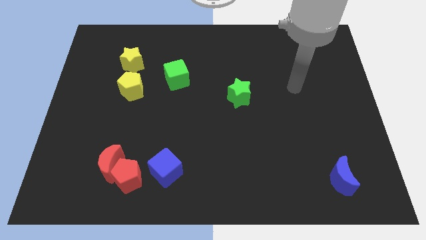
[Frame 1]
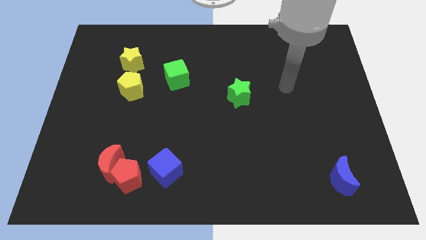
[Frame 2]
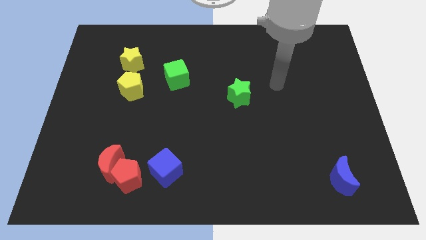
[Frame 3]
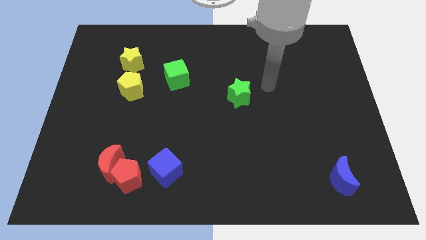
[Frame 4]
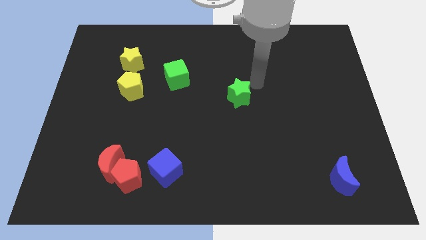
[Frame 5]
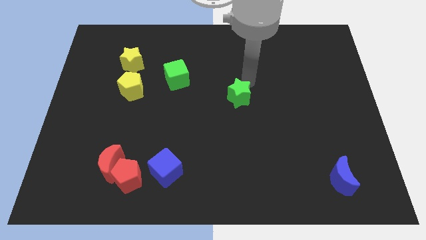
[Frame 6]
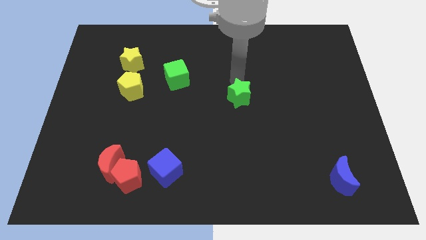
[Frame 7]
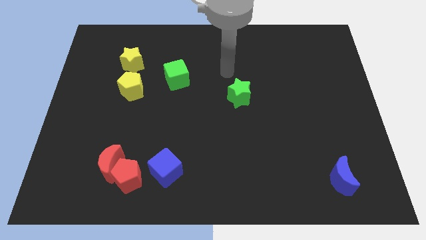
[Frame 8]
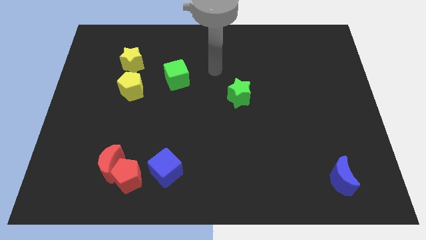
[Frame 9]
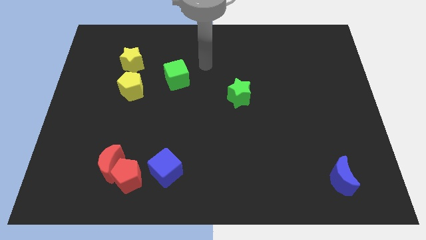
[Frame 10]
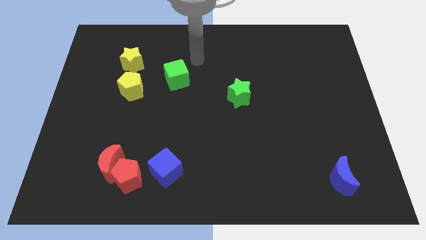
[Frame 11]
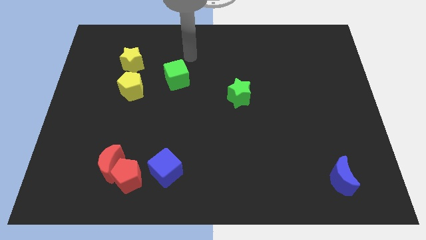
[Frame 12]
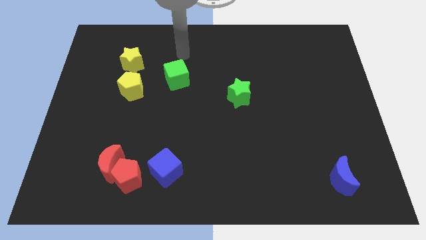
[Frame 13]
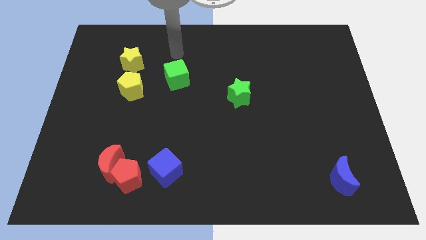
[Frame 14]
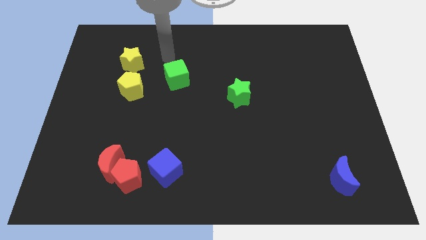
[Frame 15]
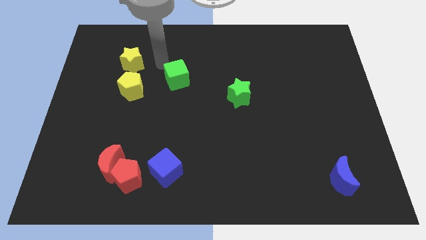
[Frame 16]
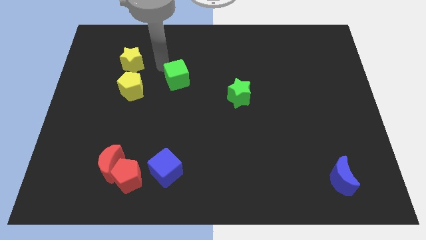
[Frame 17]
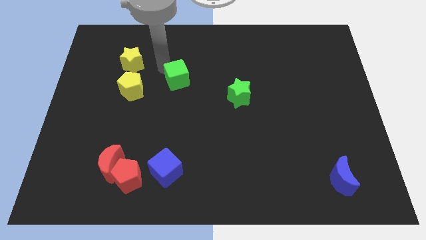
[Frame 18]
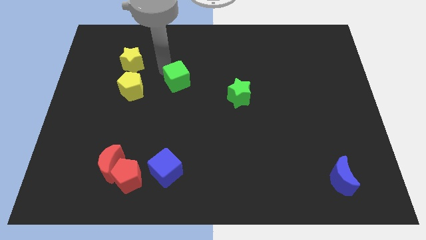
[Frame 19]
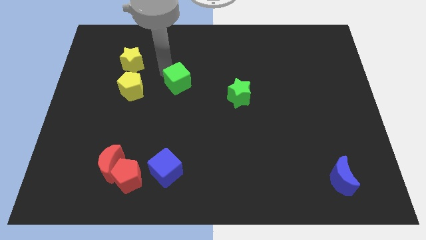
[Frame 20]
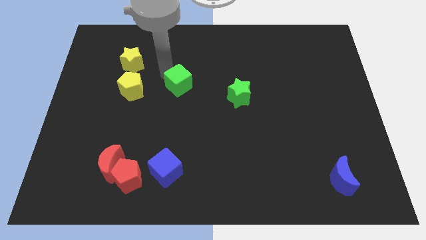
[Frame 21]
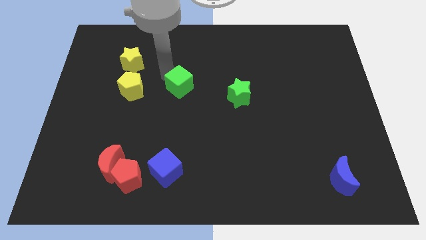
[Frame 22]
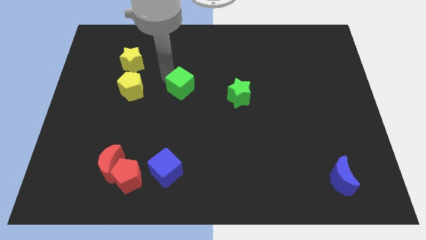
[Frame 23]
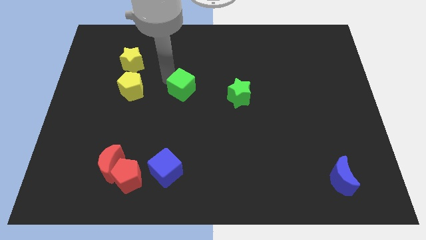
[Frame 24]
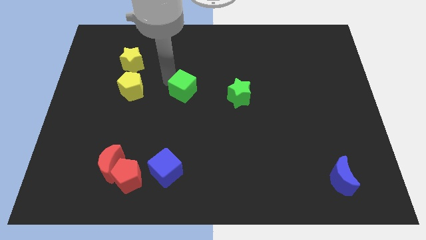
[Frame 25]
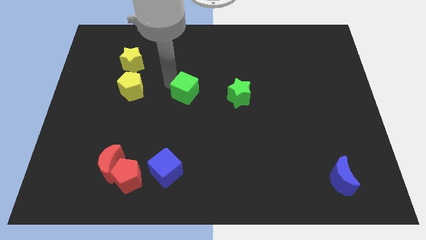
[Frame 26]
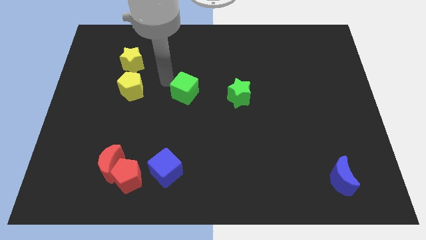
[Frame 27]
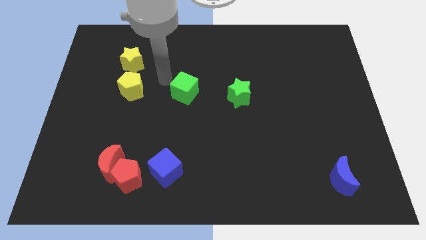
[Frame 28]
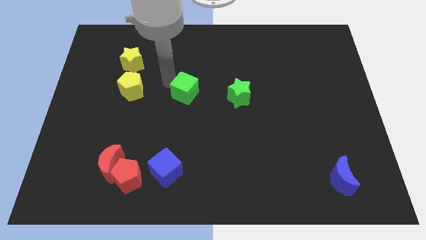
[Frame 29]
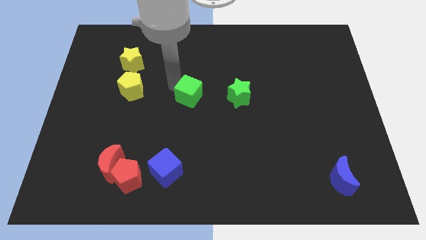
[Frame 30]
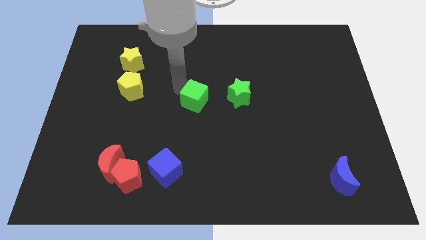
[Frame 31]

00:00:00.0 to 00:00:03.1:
slightly slide the green cube downwards and to the right diagonally

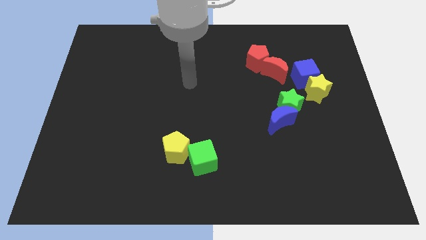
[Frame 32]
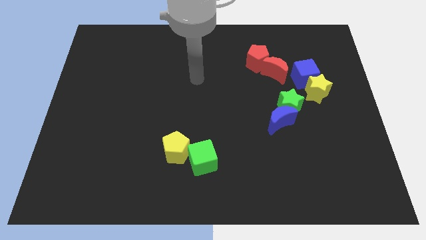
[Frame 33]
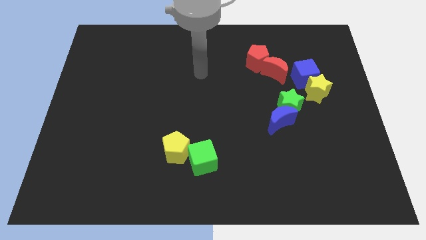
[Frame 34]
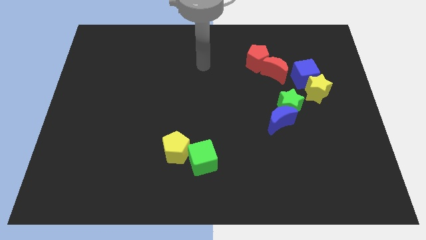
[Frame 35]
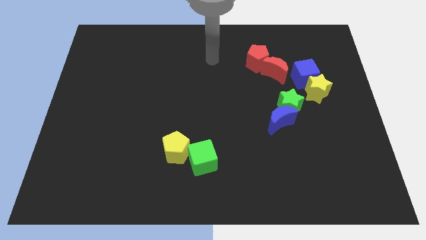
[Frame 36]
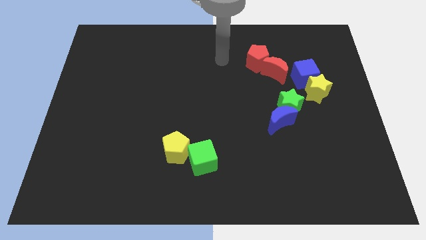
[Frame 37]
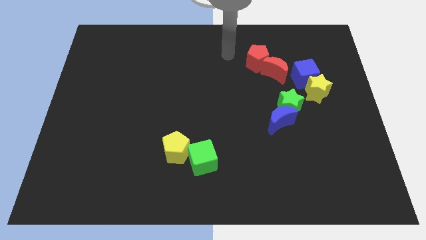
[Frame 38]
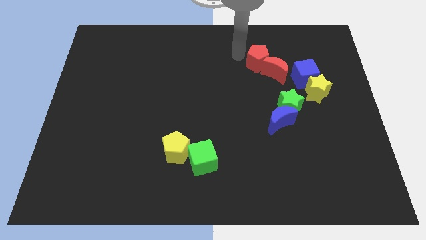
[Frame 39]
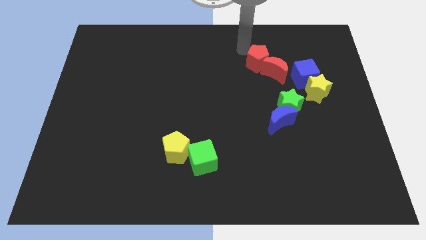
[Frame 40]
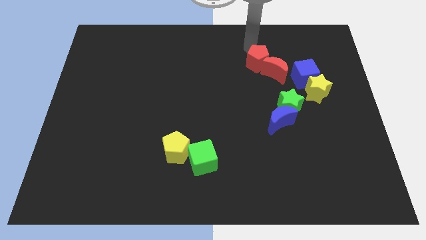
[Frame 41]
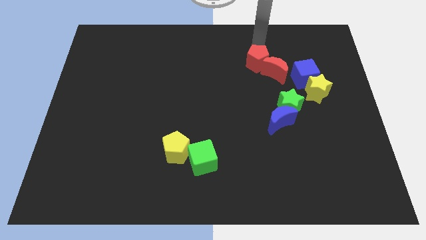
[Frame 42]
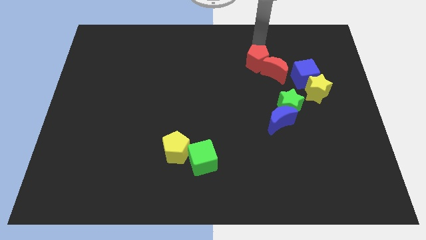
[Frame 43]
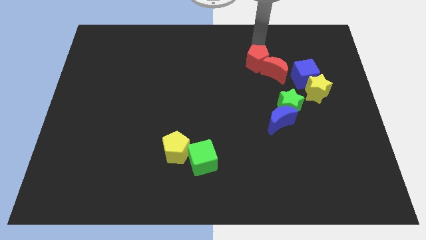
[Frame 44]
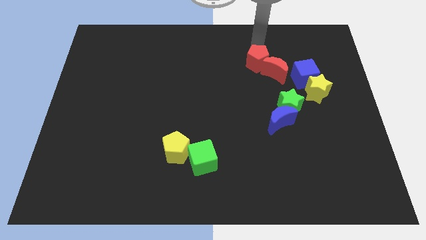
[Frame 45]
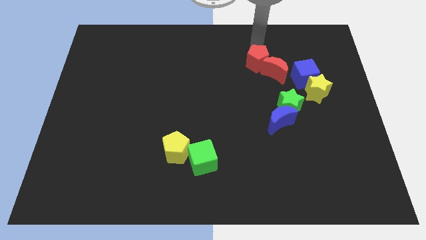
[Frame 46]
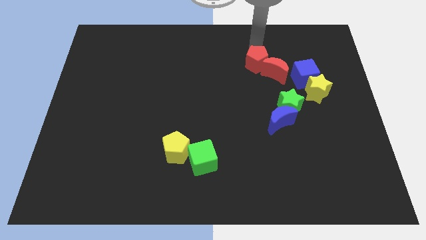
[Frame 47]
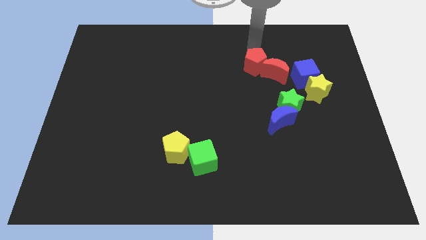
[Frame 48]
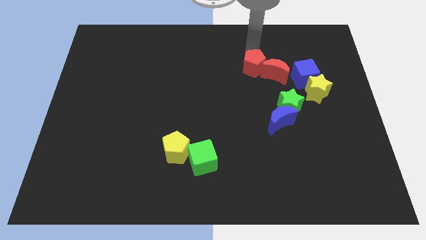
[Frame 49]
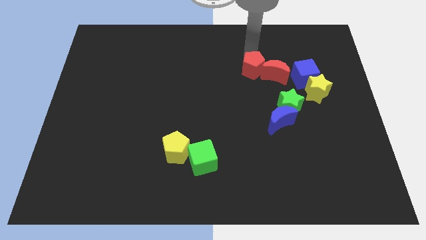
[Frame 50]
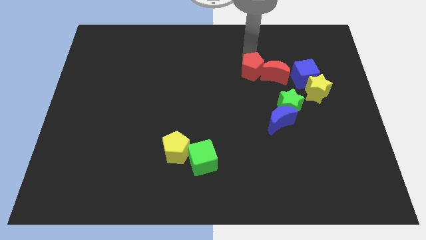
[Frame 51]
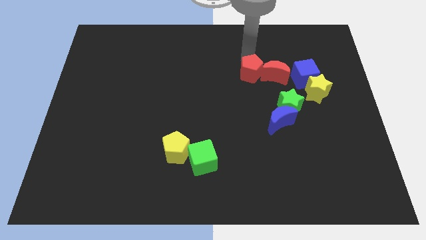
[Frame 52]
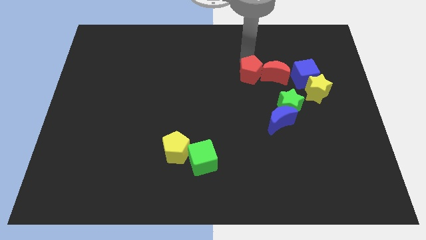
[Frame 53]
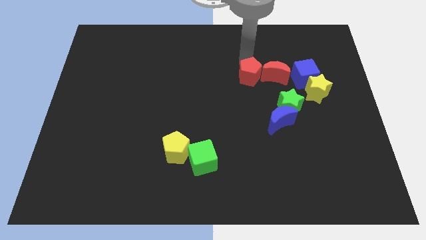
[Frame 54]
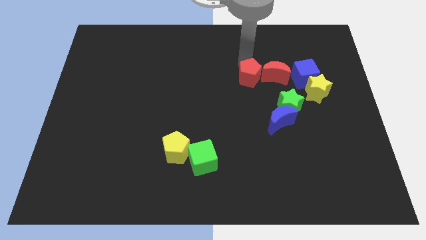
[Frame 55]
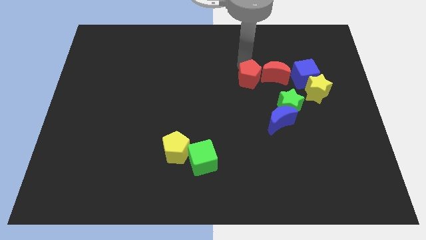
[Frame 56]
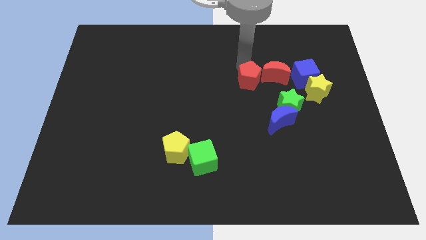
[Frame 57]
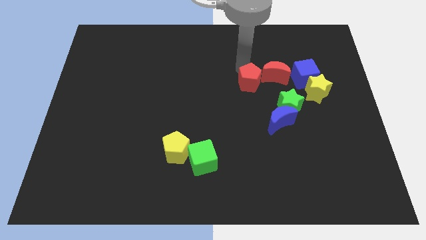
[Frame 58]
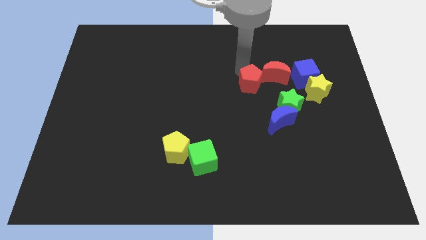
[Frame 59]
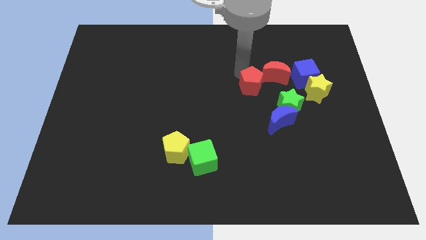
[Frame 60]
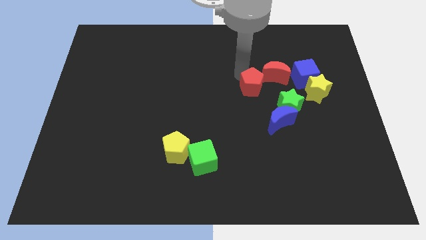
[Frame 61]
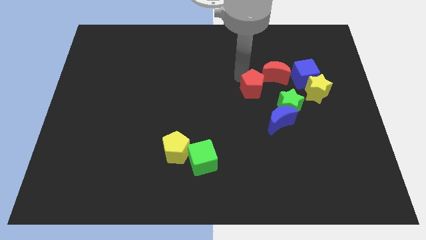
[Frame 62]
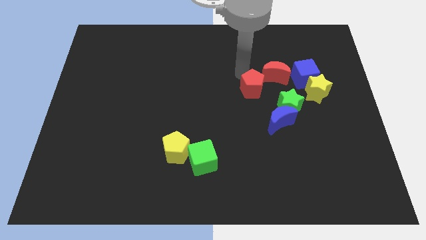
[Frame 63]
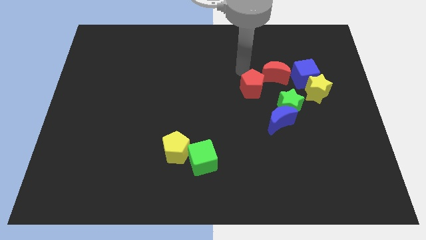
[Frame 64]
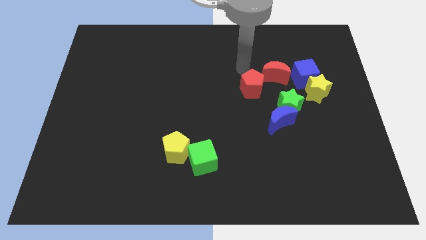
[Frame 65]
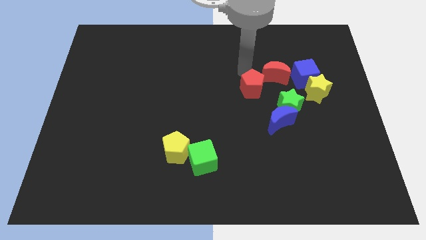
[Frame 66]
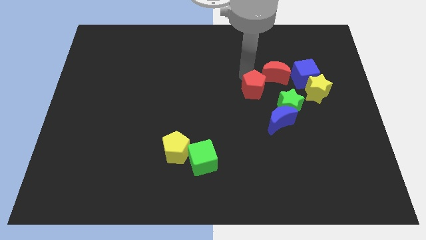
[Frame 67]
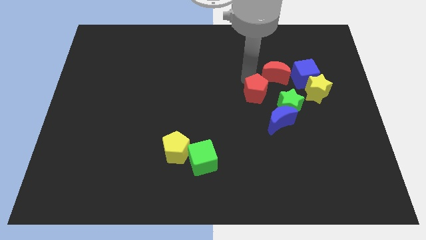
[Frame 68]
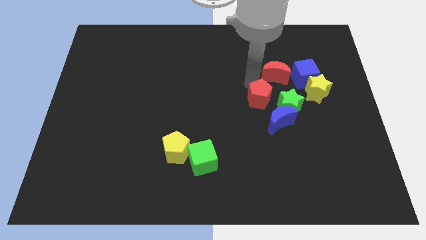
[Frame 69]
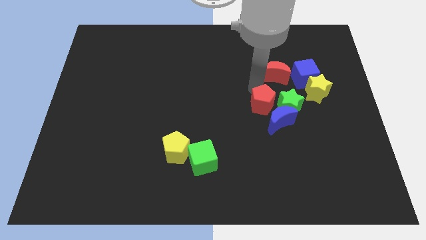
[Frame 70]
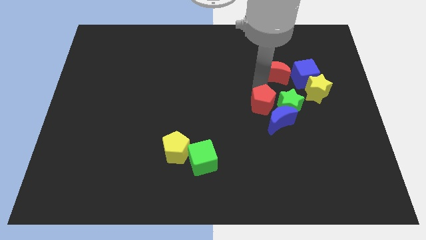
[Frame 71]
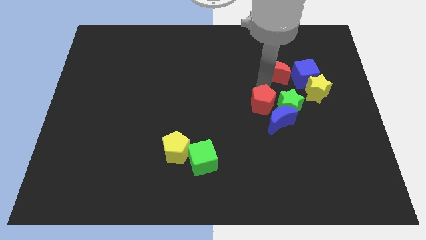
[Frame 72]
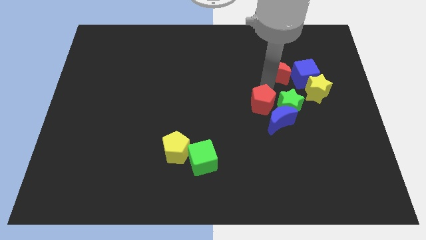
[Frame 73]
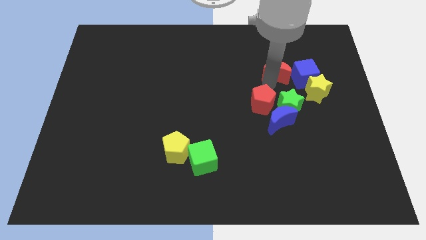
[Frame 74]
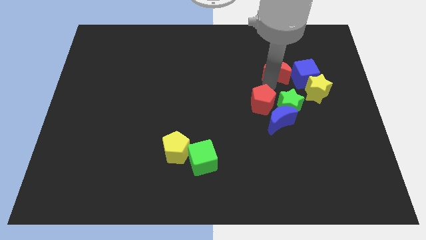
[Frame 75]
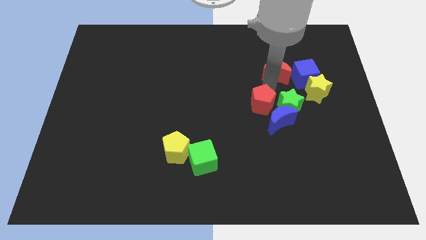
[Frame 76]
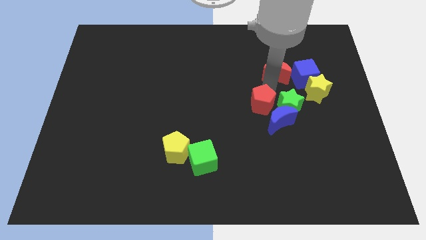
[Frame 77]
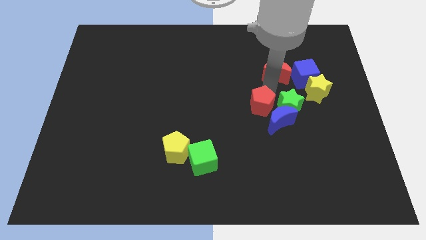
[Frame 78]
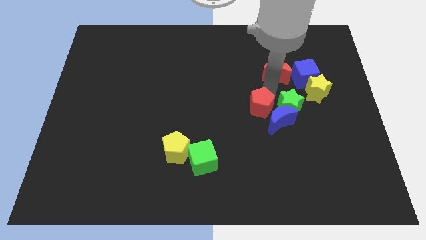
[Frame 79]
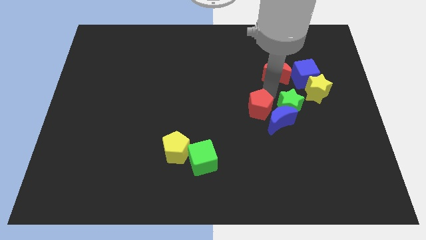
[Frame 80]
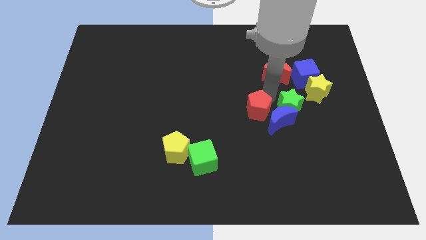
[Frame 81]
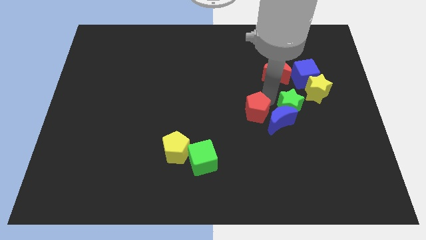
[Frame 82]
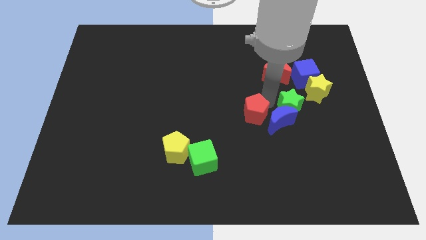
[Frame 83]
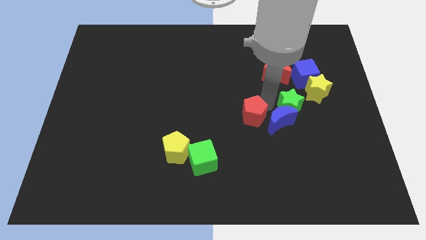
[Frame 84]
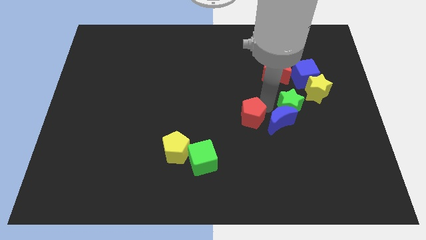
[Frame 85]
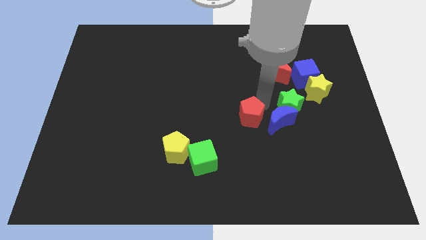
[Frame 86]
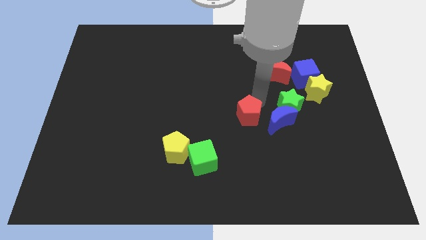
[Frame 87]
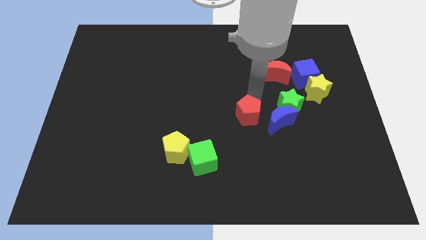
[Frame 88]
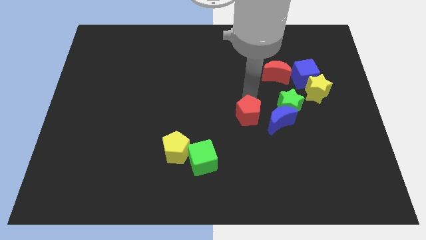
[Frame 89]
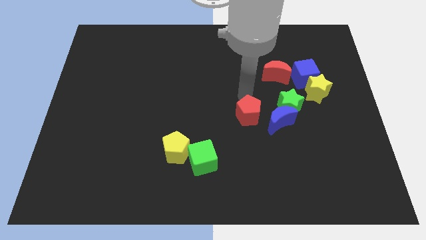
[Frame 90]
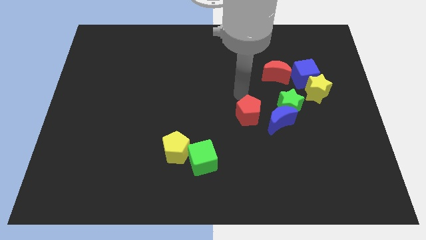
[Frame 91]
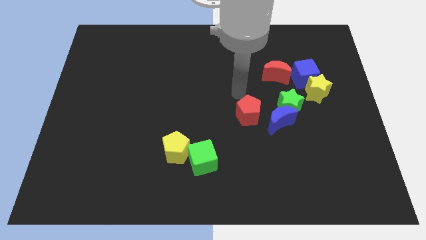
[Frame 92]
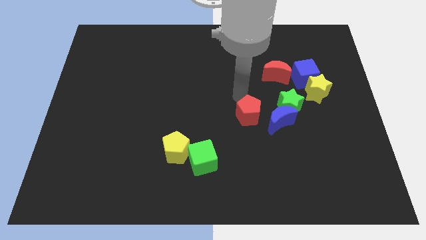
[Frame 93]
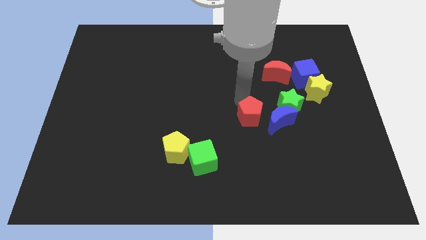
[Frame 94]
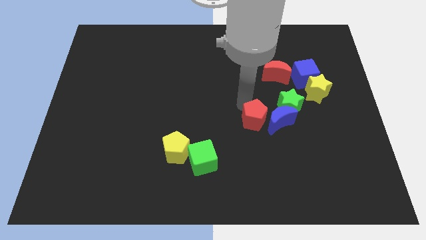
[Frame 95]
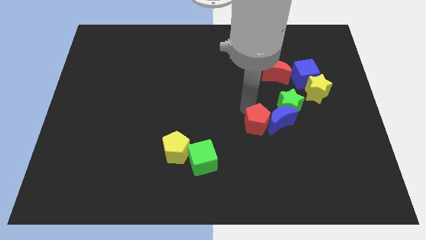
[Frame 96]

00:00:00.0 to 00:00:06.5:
slide the red pentagon down
